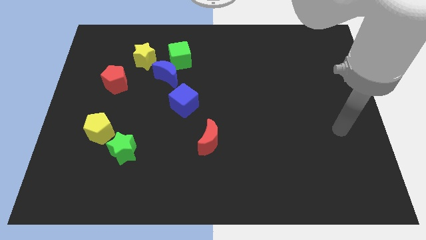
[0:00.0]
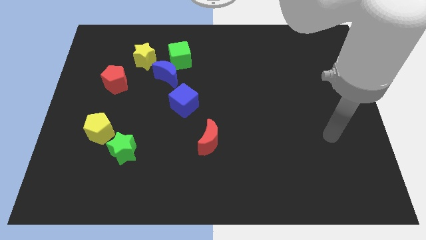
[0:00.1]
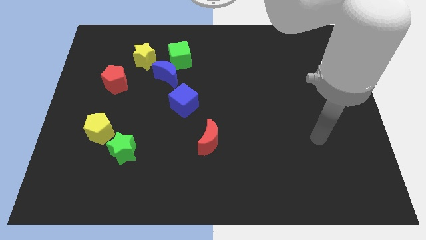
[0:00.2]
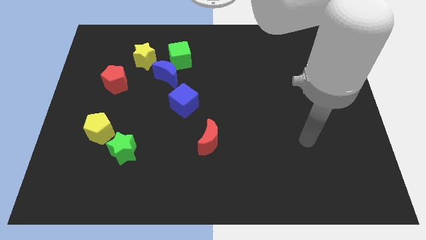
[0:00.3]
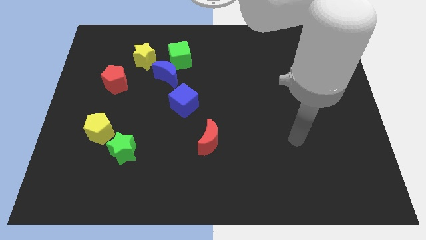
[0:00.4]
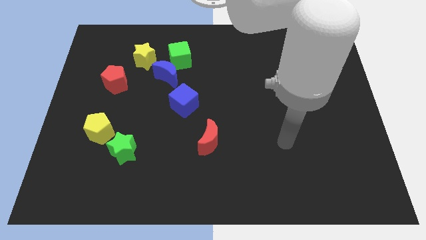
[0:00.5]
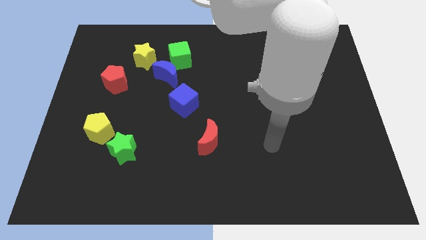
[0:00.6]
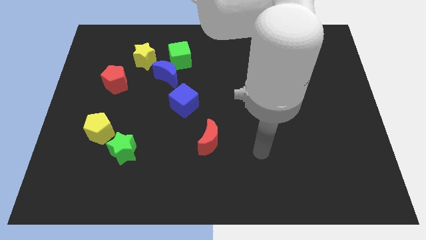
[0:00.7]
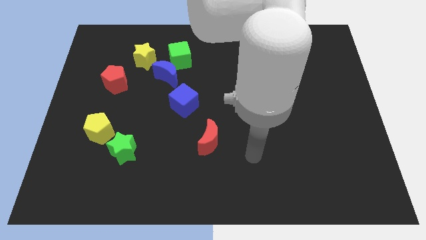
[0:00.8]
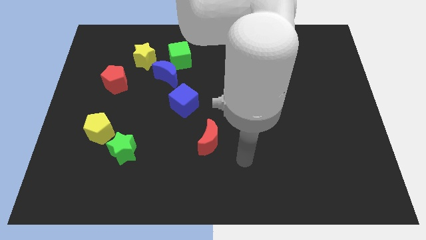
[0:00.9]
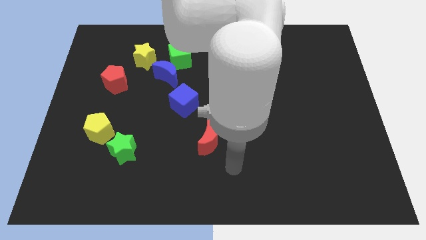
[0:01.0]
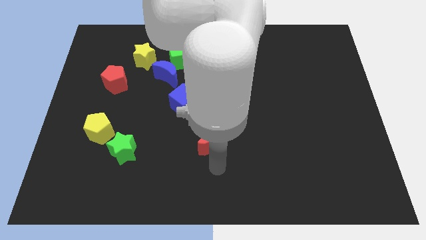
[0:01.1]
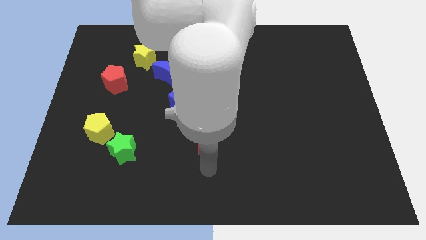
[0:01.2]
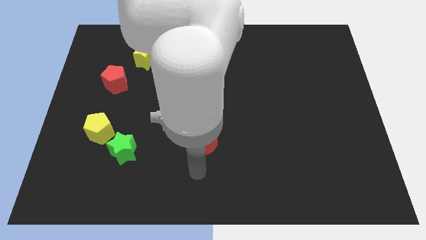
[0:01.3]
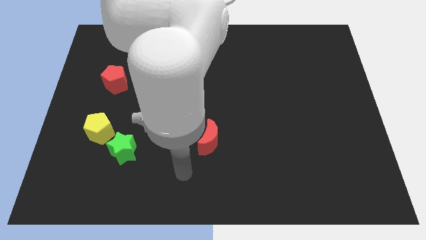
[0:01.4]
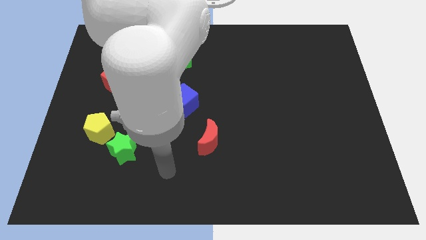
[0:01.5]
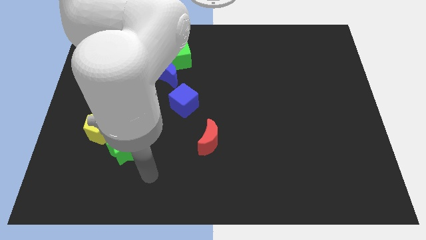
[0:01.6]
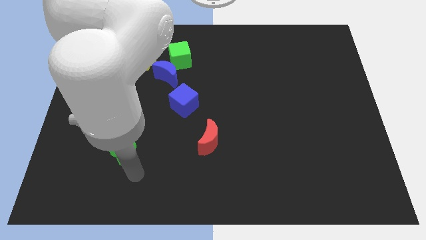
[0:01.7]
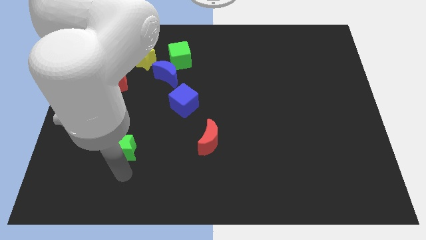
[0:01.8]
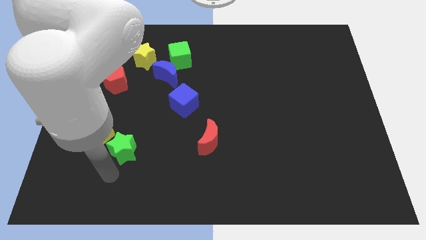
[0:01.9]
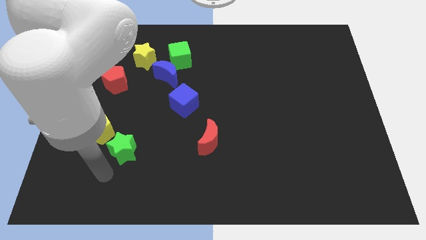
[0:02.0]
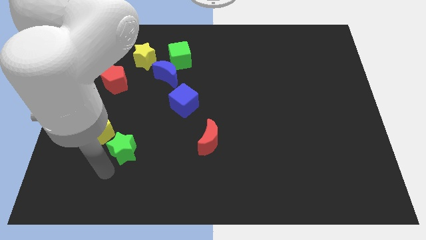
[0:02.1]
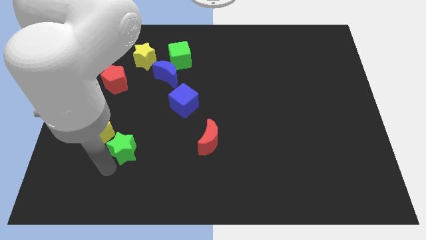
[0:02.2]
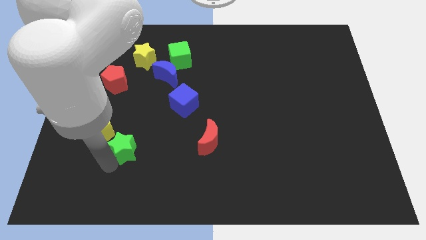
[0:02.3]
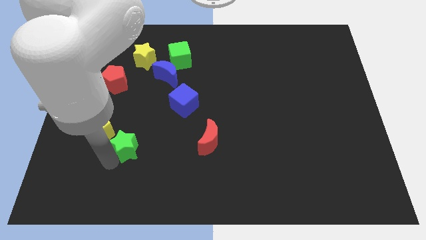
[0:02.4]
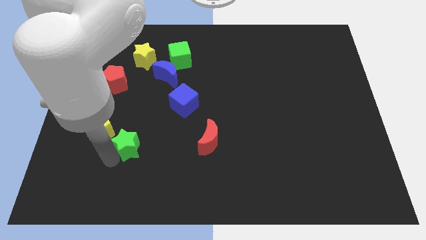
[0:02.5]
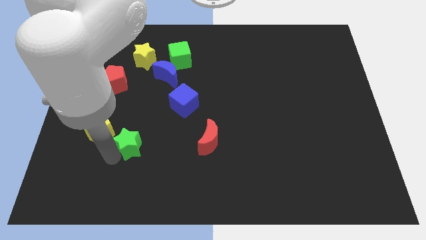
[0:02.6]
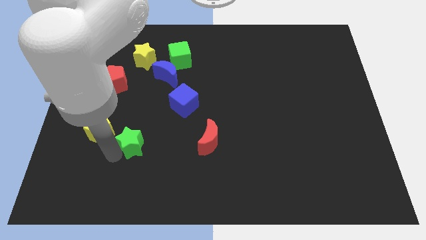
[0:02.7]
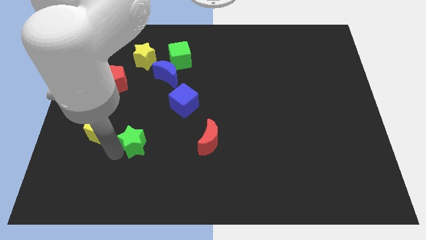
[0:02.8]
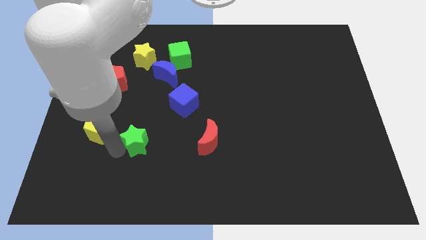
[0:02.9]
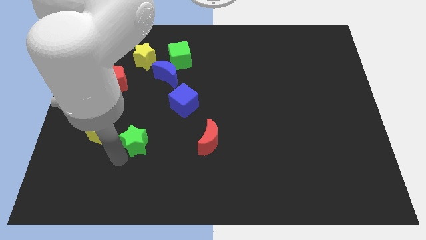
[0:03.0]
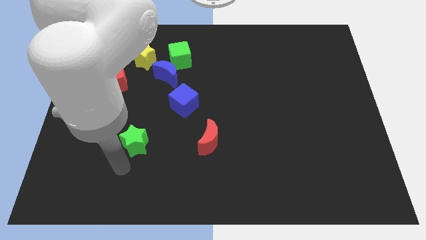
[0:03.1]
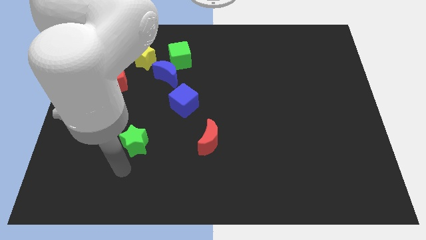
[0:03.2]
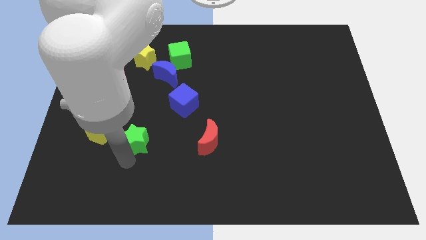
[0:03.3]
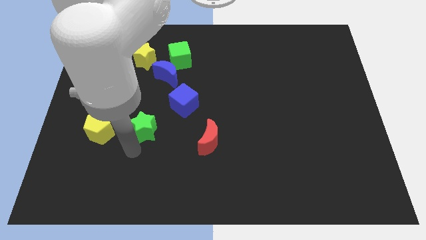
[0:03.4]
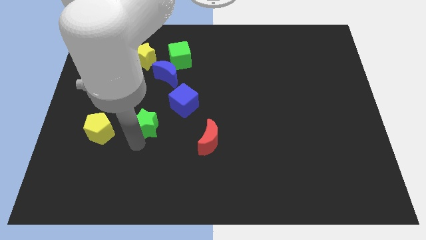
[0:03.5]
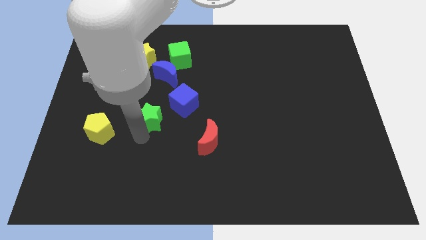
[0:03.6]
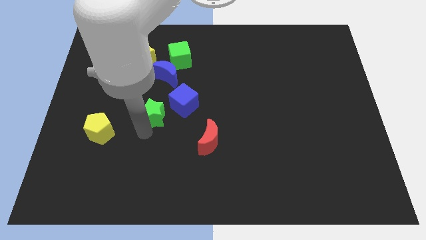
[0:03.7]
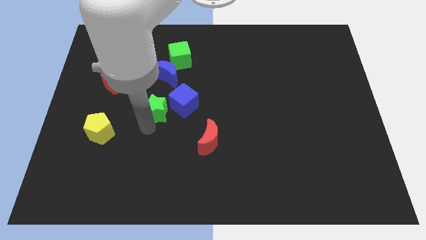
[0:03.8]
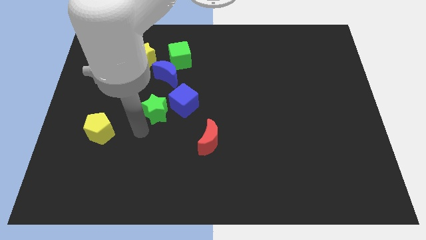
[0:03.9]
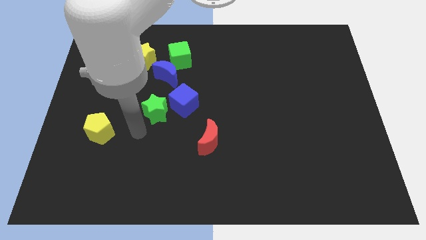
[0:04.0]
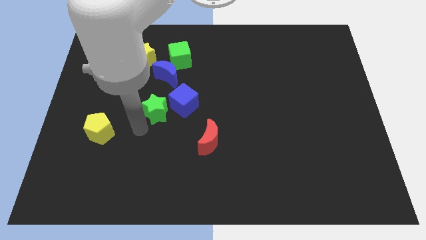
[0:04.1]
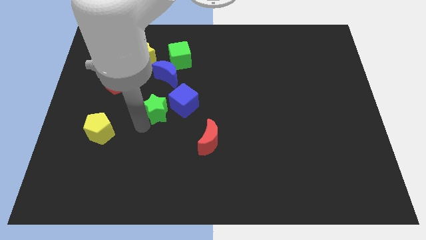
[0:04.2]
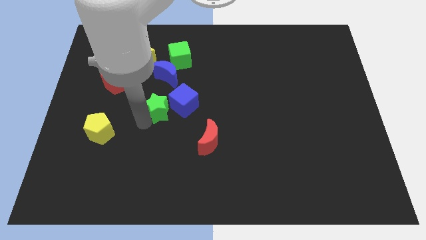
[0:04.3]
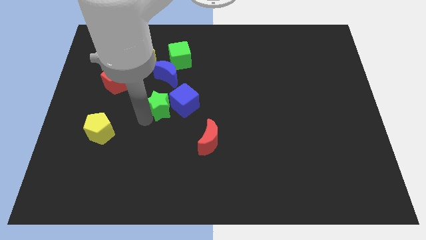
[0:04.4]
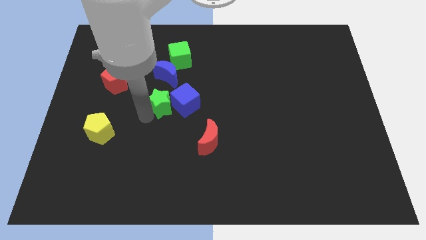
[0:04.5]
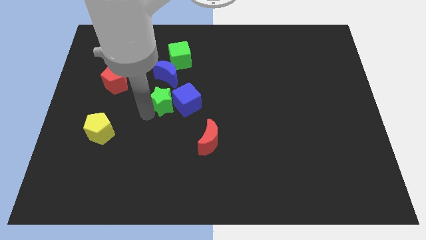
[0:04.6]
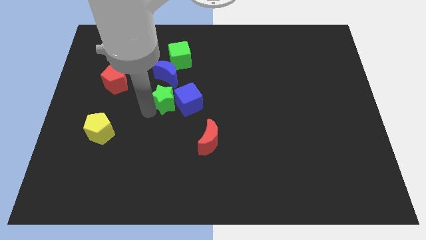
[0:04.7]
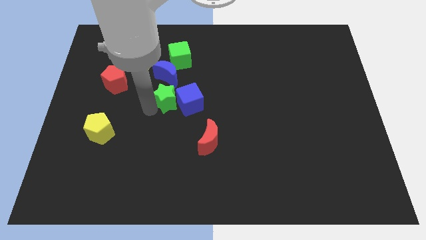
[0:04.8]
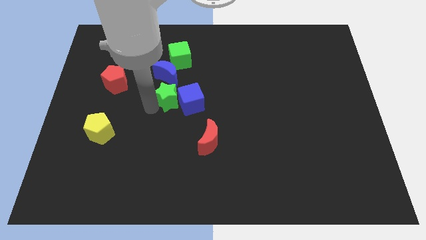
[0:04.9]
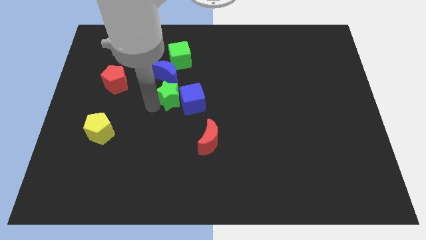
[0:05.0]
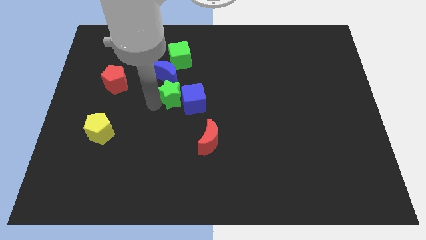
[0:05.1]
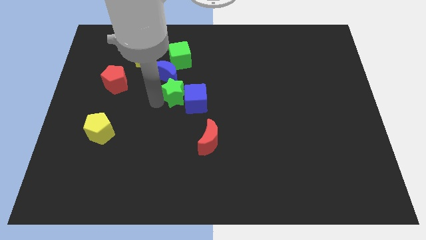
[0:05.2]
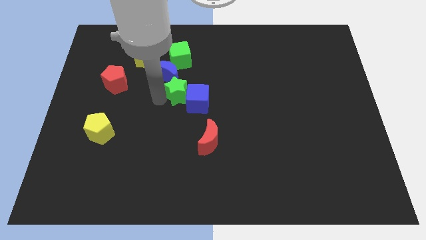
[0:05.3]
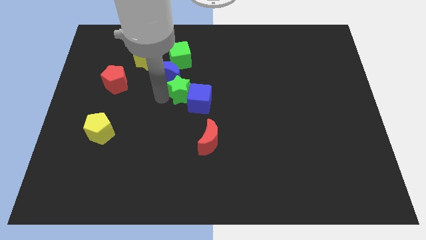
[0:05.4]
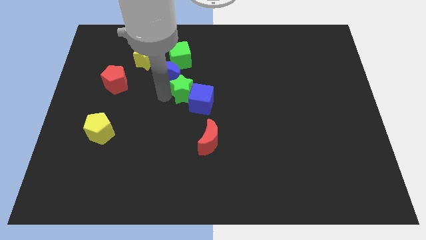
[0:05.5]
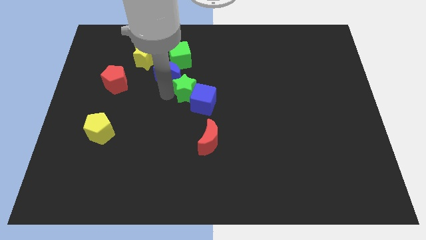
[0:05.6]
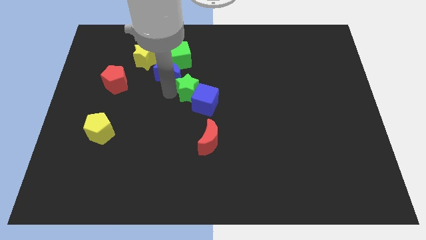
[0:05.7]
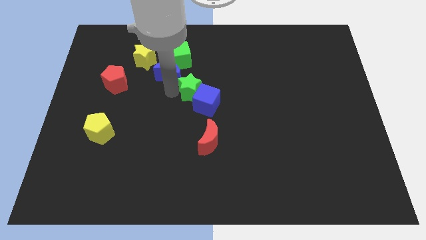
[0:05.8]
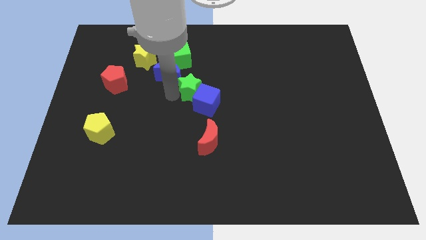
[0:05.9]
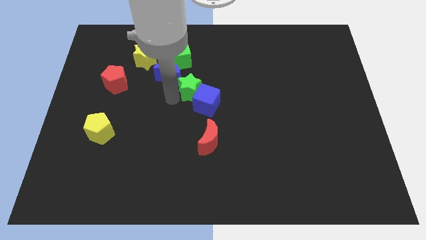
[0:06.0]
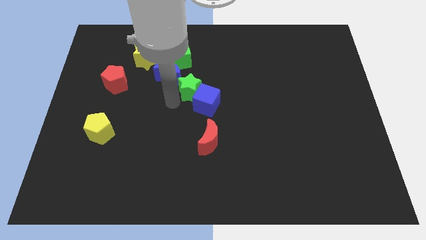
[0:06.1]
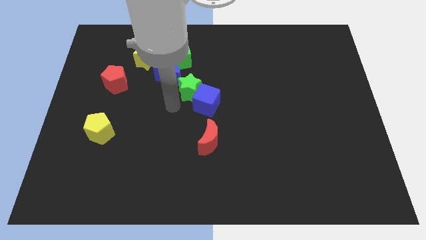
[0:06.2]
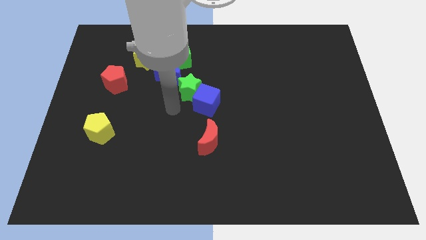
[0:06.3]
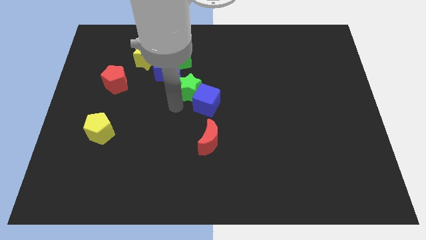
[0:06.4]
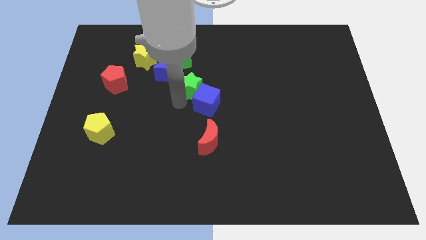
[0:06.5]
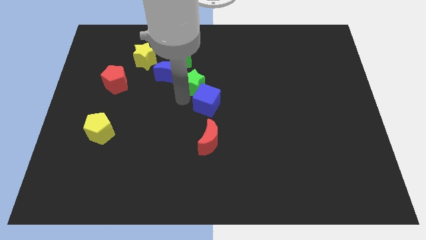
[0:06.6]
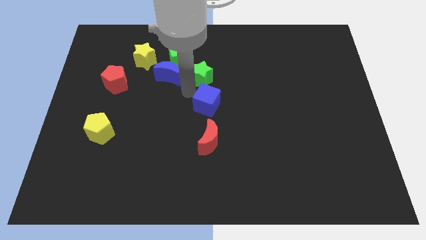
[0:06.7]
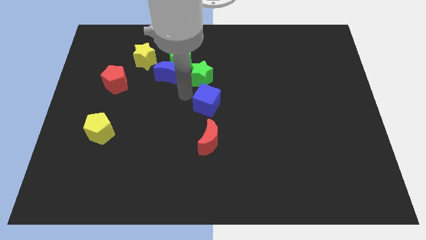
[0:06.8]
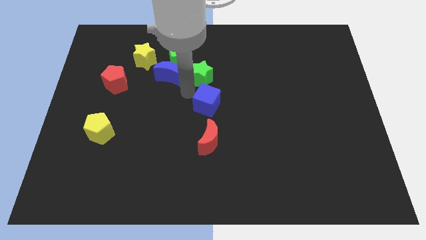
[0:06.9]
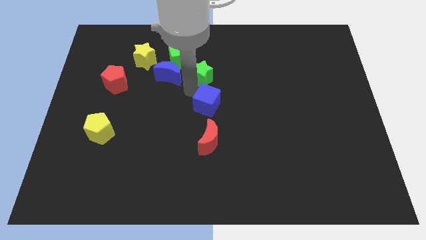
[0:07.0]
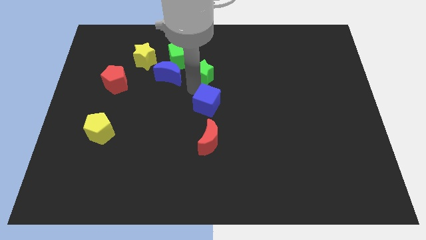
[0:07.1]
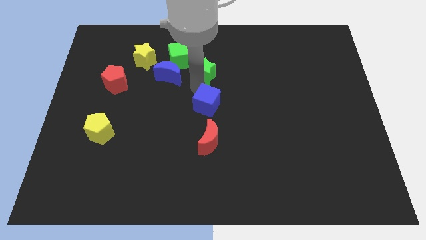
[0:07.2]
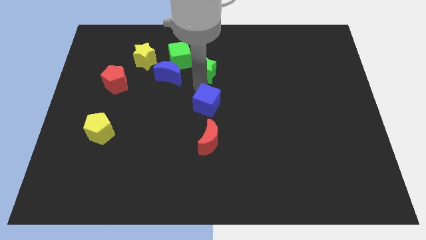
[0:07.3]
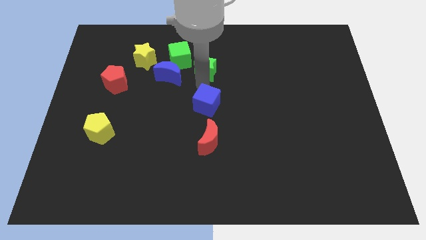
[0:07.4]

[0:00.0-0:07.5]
move the green star to the right side of the green cube
